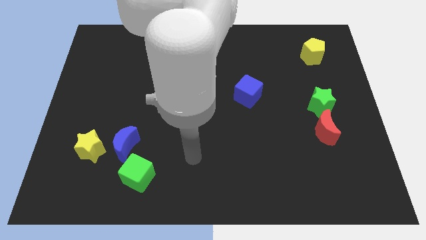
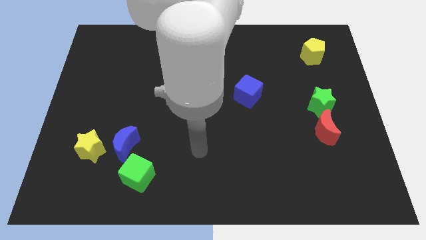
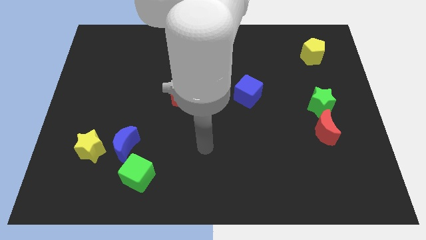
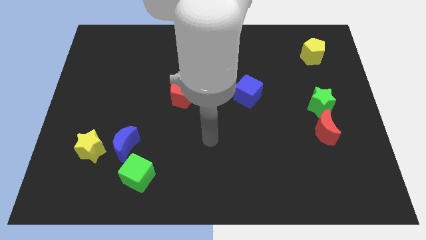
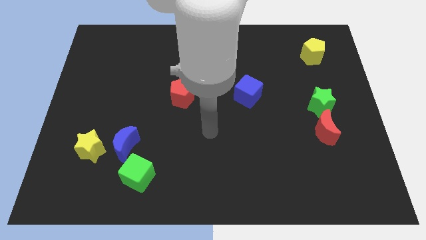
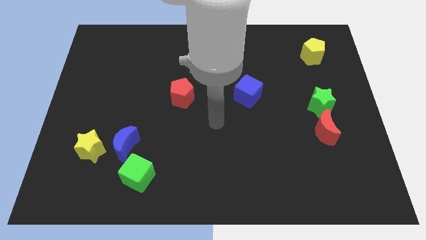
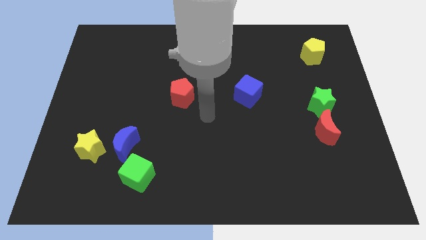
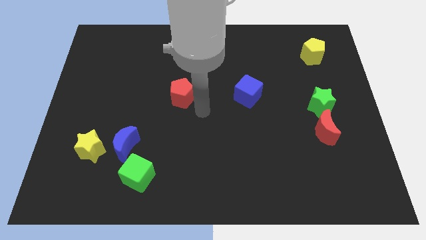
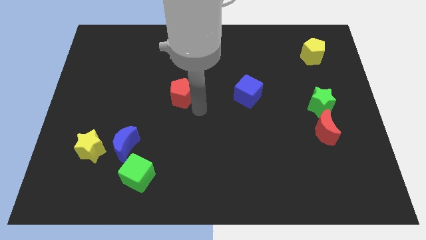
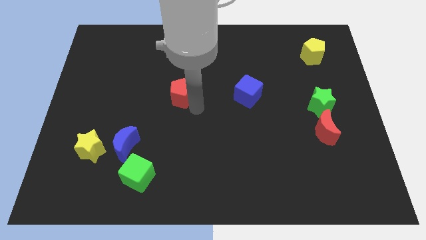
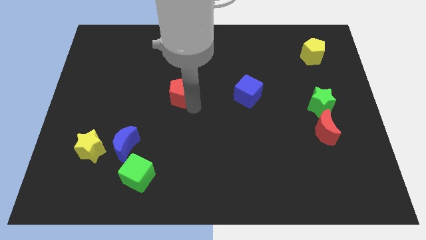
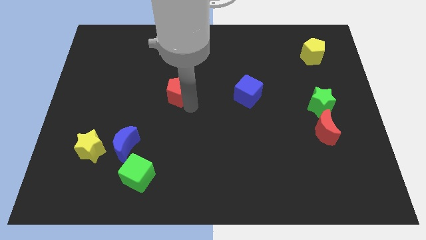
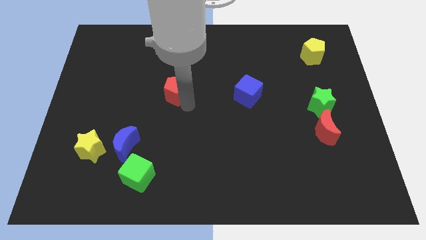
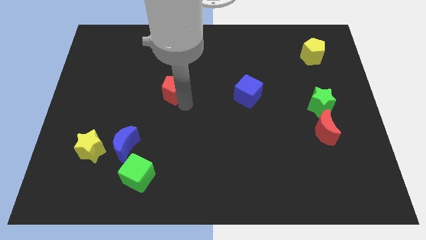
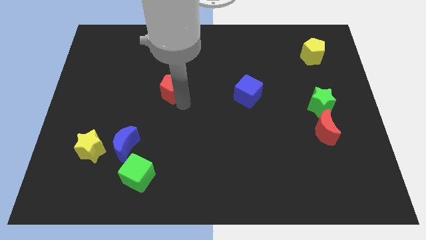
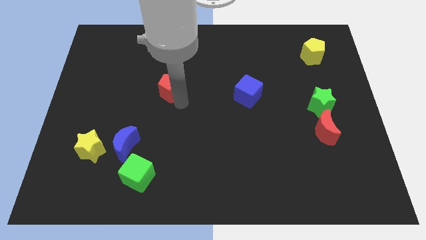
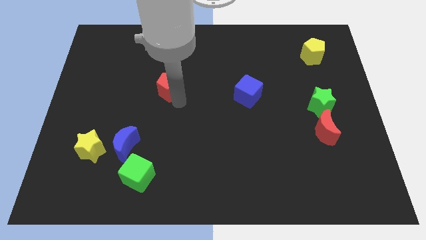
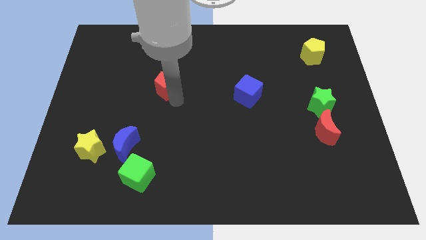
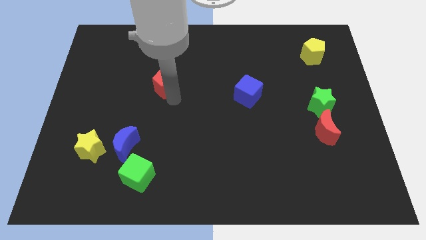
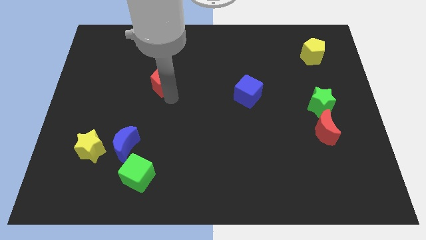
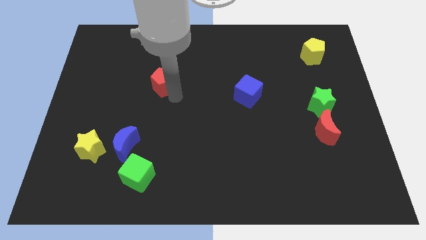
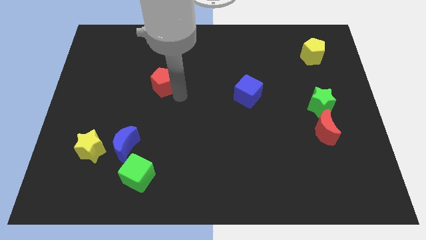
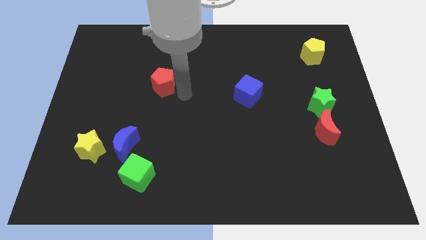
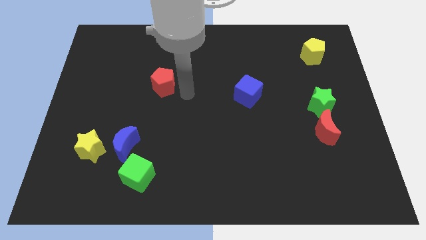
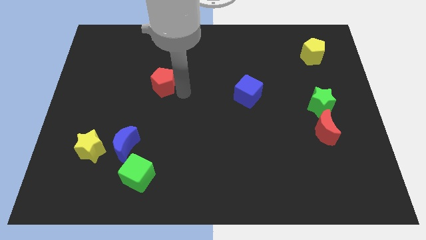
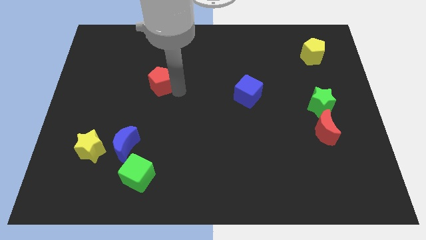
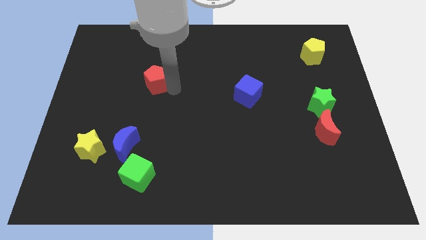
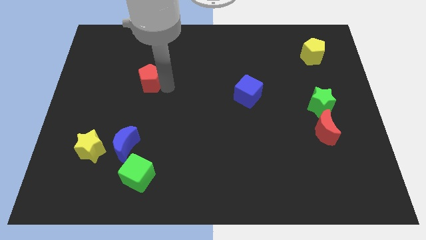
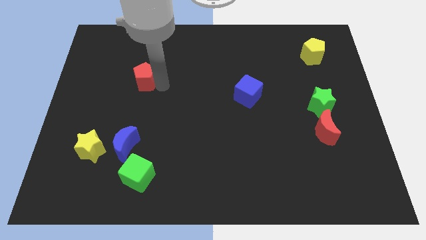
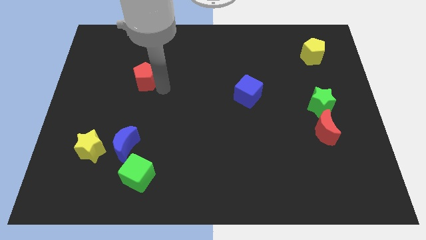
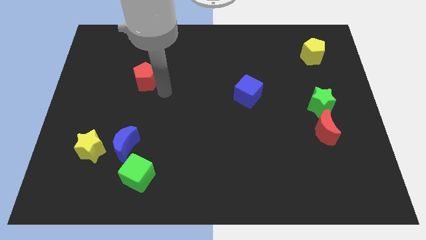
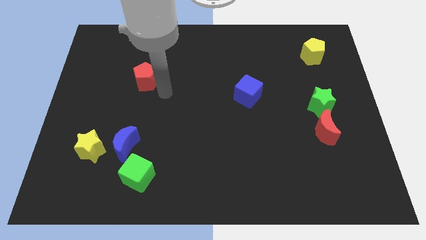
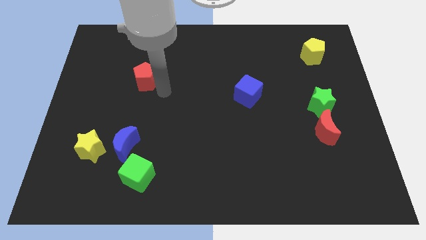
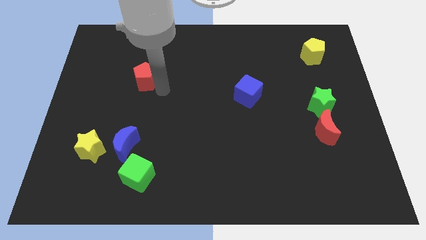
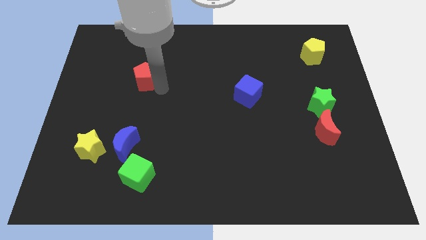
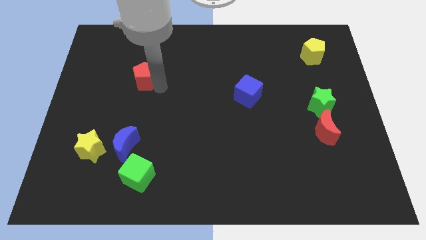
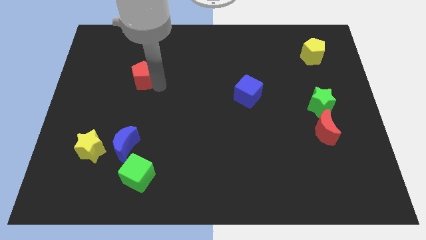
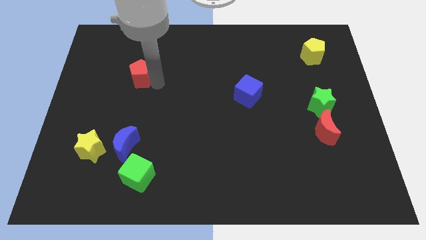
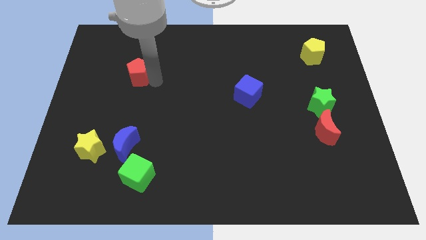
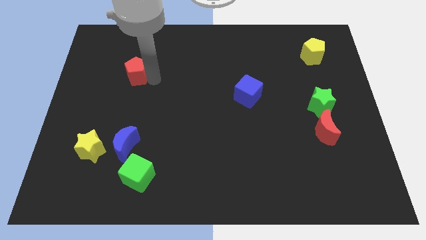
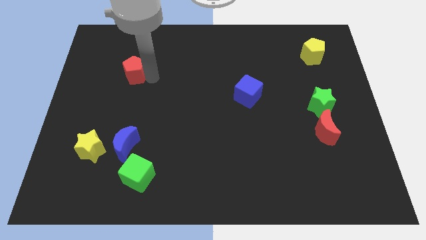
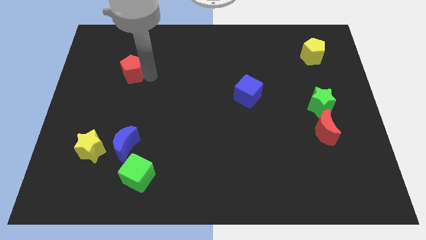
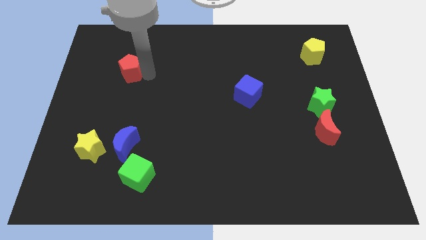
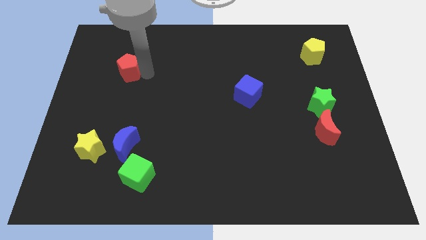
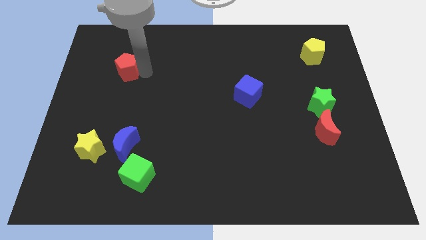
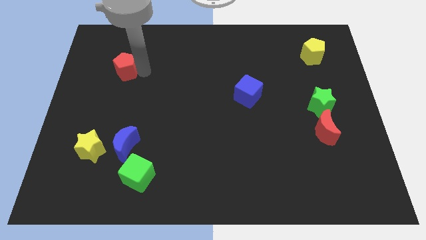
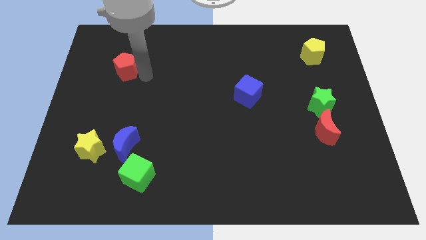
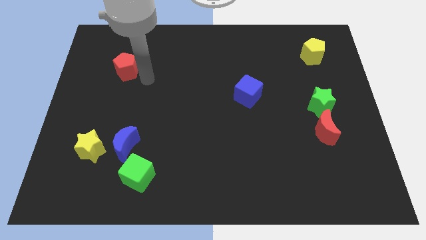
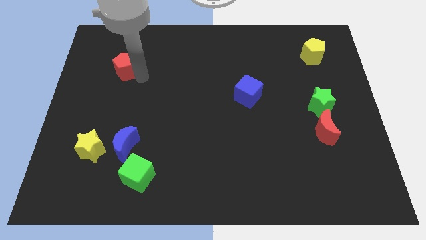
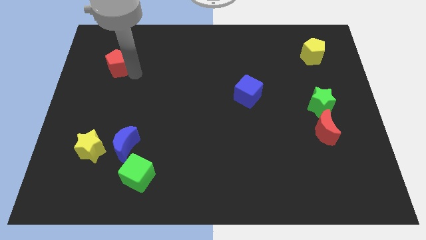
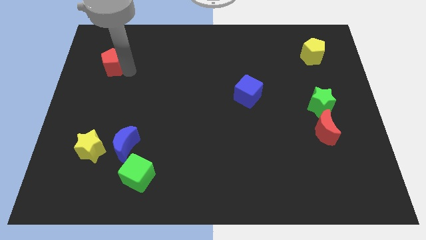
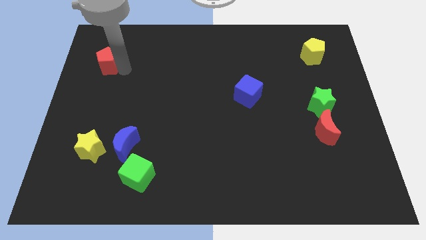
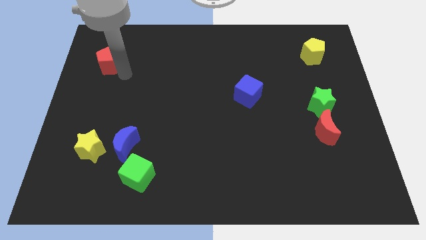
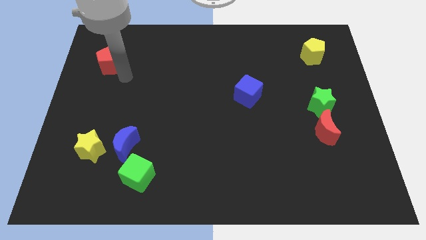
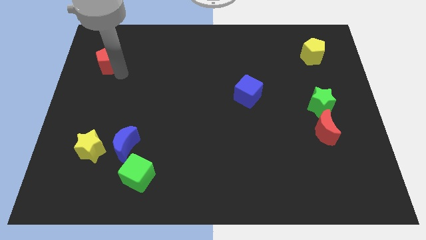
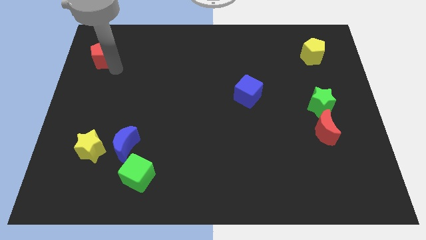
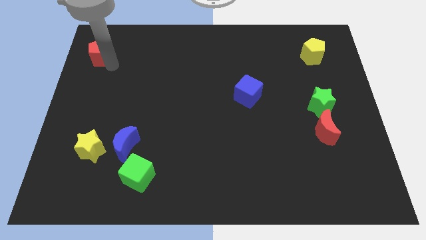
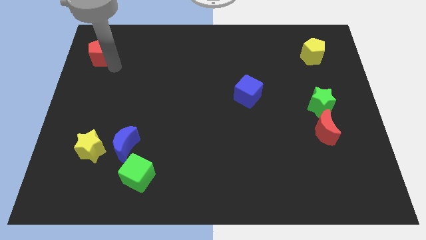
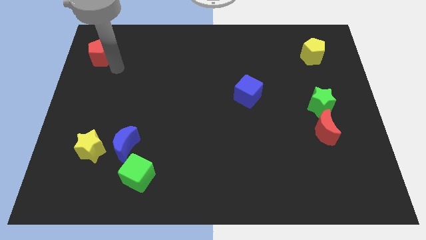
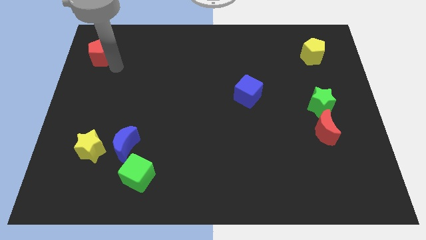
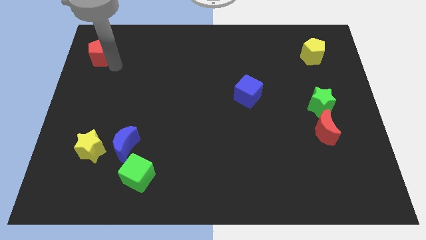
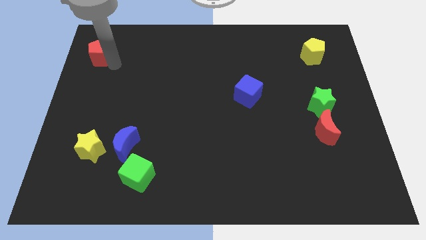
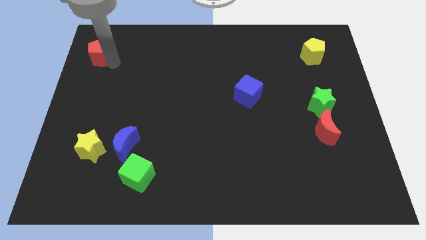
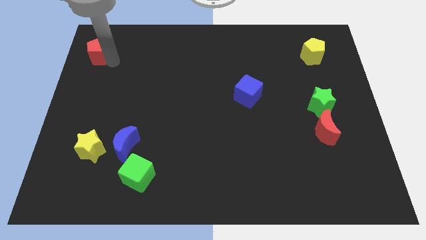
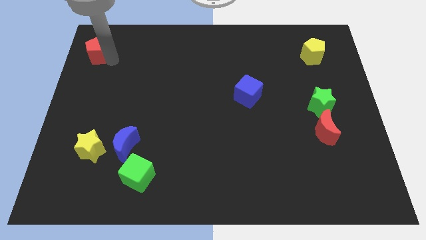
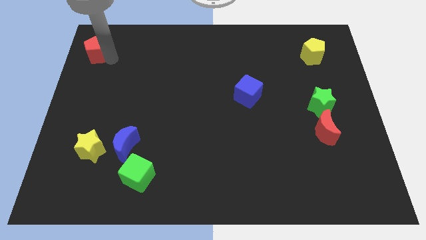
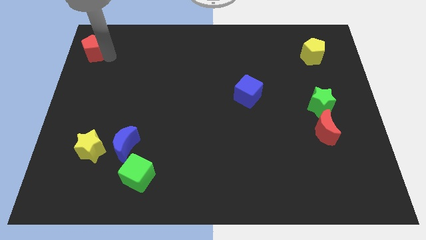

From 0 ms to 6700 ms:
put the red pentagon to the top left
